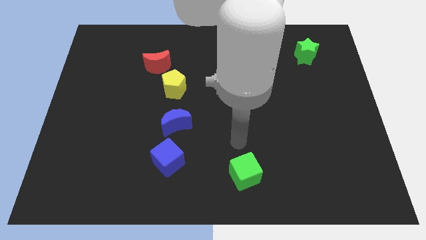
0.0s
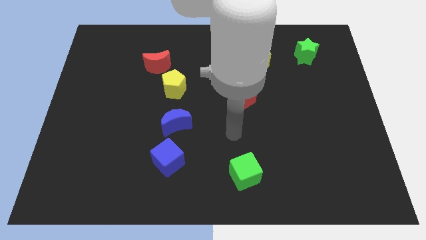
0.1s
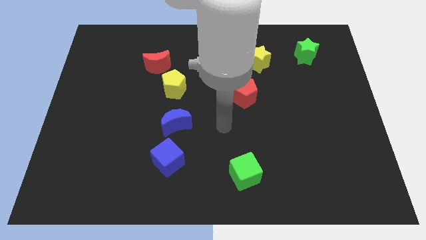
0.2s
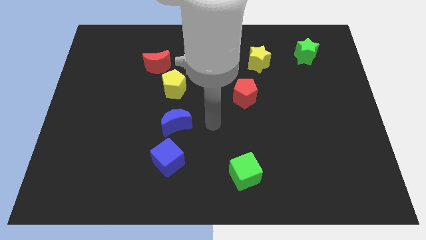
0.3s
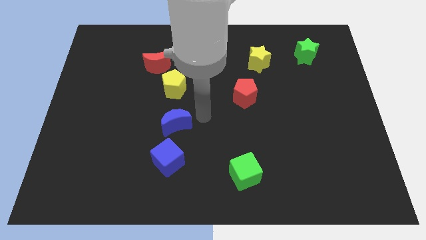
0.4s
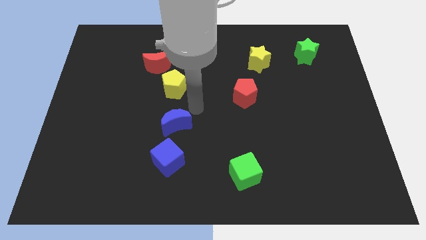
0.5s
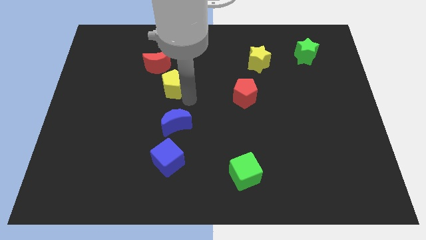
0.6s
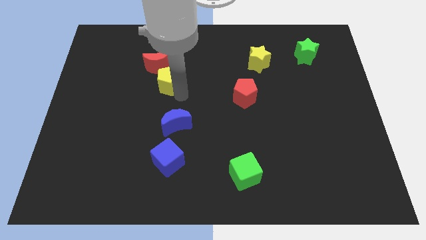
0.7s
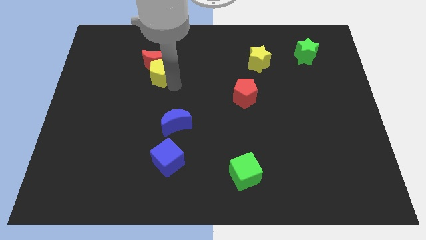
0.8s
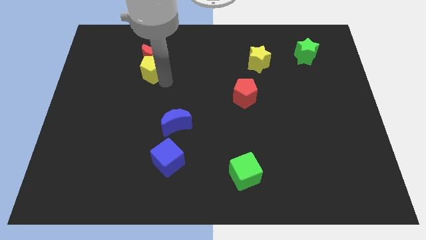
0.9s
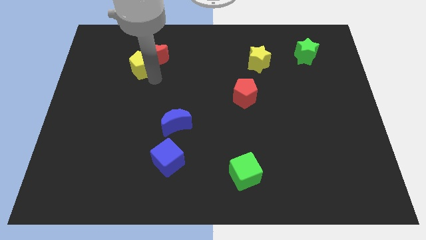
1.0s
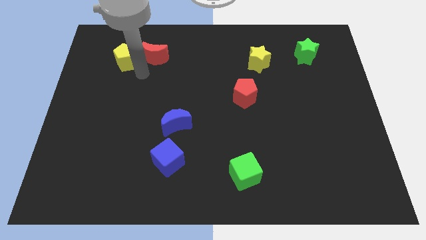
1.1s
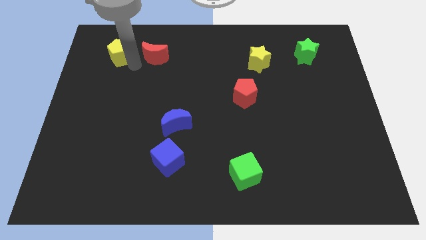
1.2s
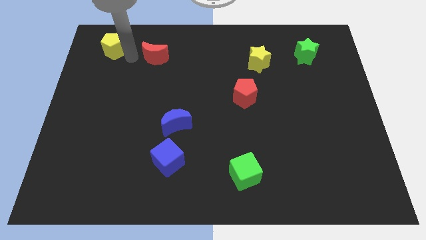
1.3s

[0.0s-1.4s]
move the red moon away from the yellow pentagon

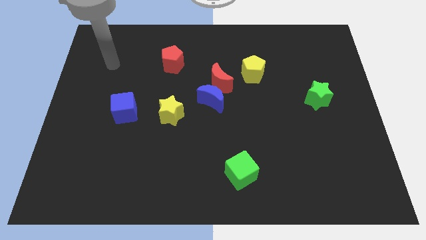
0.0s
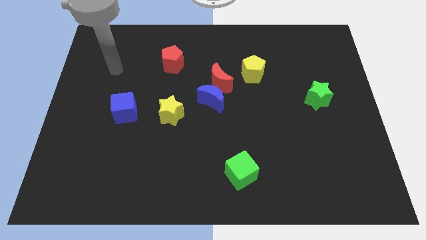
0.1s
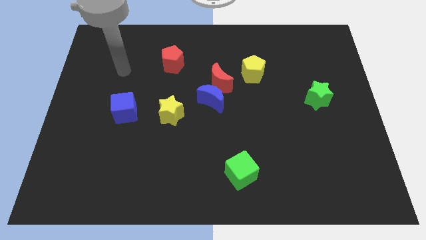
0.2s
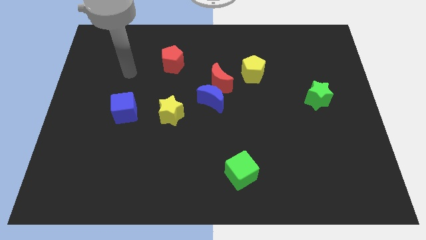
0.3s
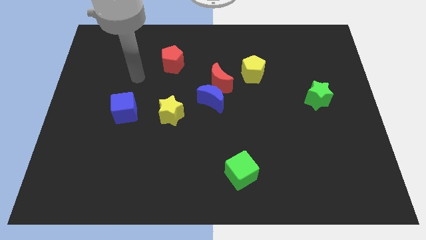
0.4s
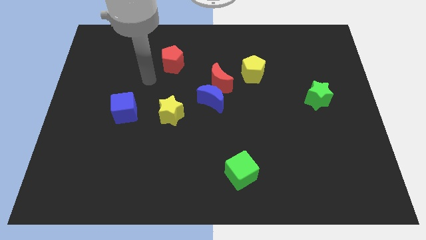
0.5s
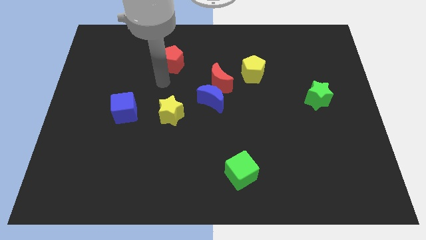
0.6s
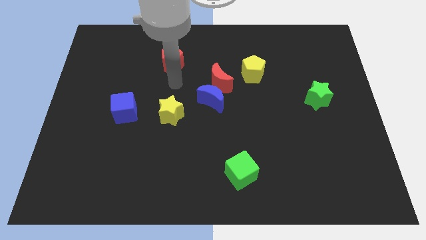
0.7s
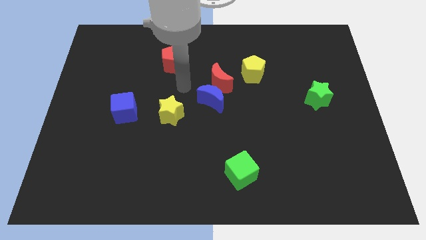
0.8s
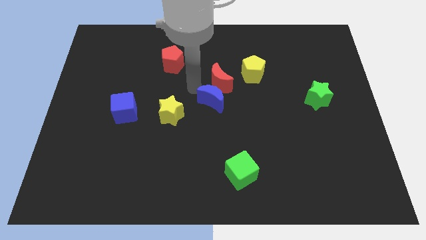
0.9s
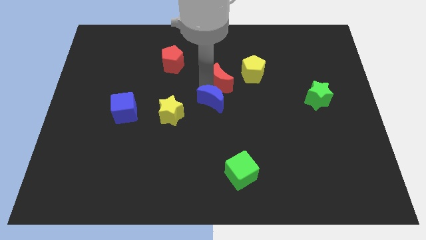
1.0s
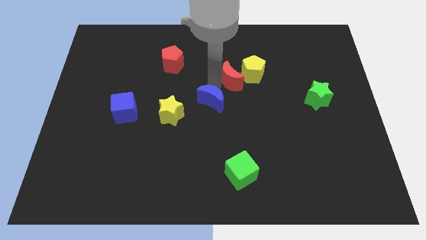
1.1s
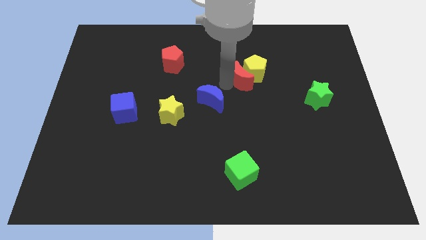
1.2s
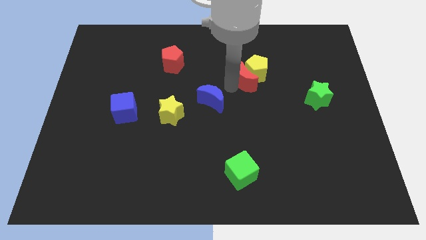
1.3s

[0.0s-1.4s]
move the blue moon away from the red moon

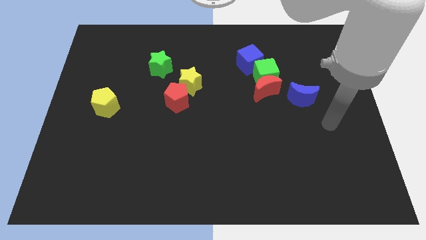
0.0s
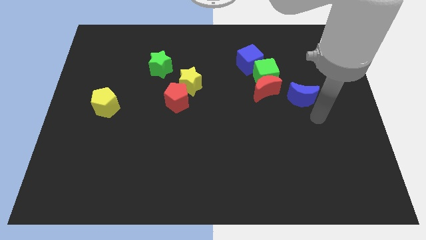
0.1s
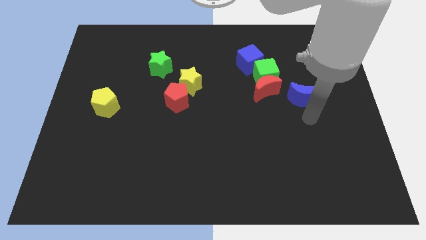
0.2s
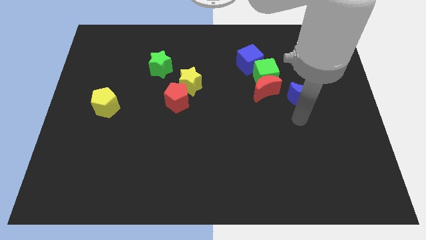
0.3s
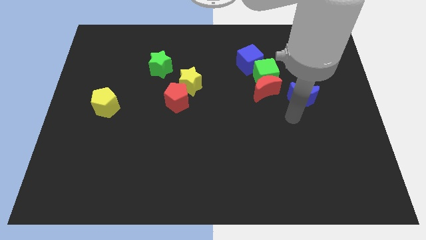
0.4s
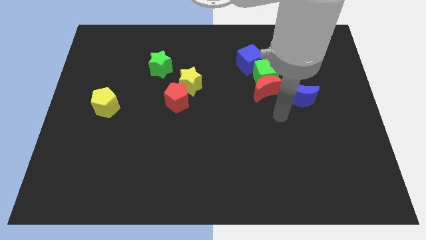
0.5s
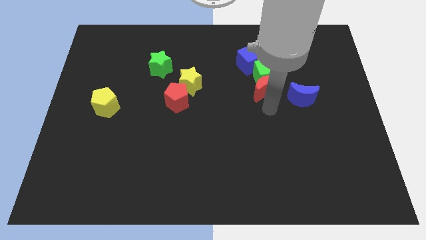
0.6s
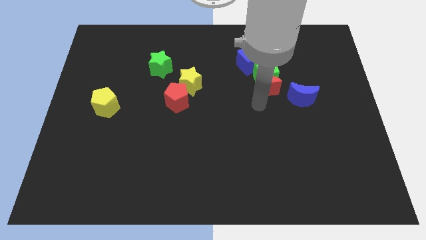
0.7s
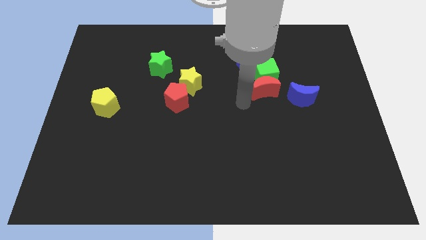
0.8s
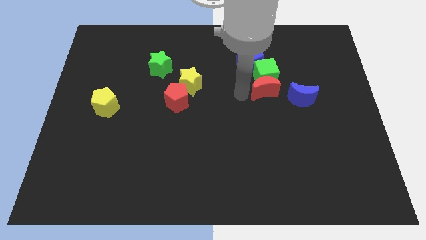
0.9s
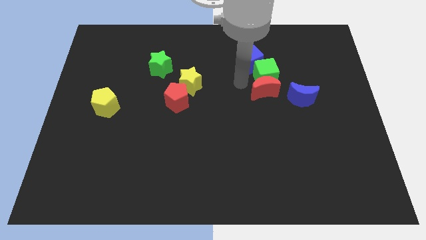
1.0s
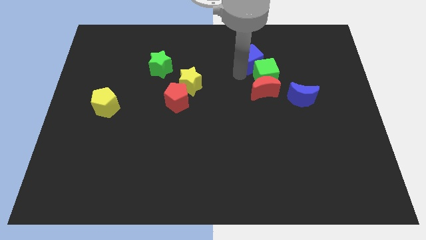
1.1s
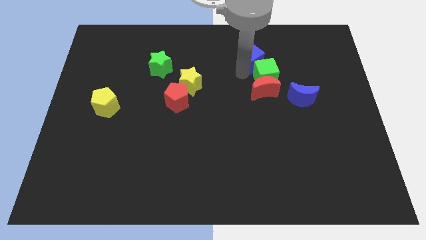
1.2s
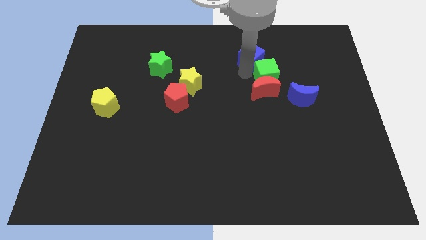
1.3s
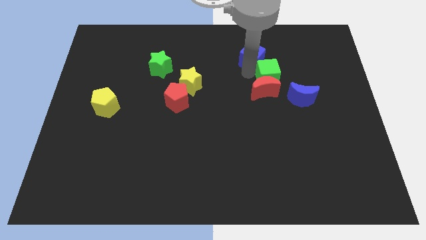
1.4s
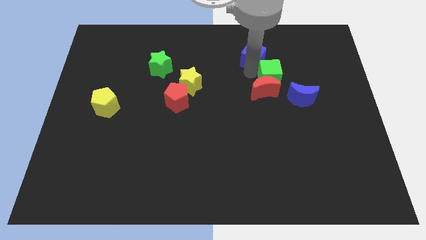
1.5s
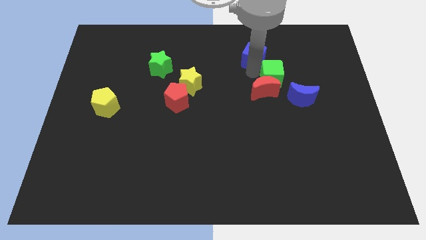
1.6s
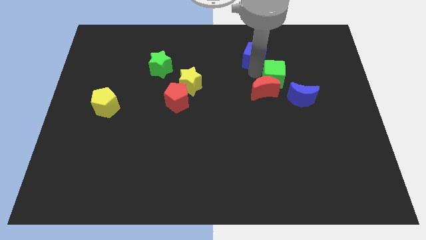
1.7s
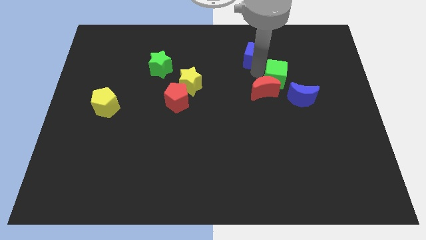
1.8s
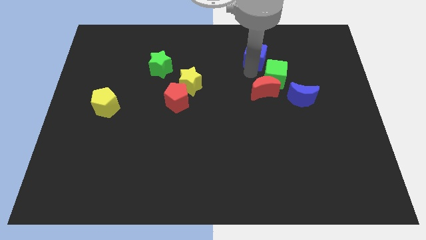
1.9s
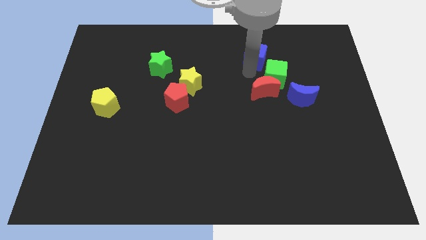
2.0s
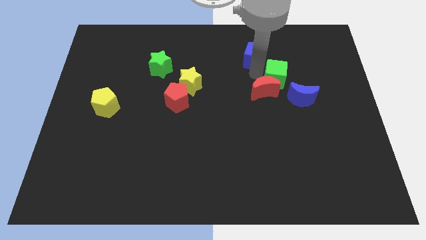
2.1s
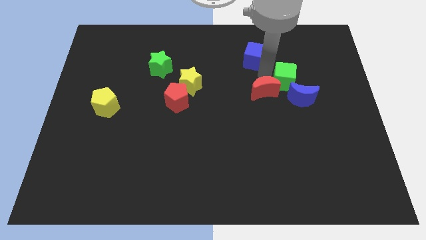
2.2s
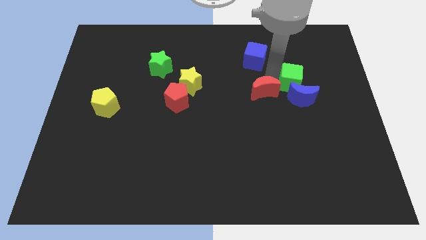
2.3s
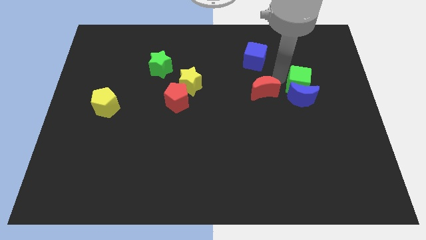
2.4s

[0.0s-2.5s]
pull the green cube apart from the red moon and blue cube

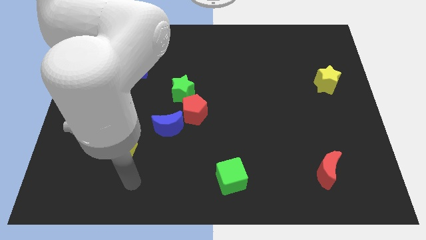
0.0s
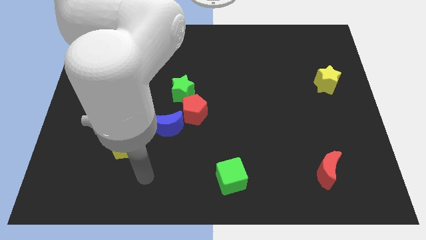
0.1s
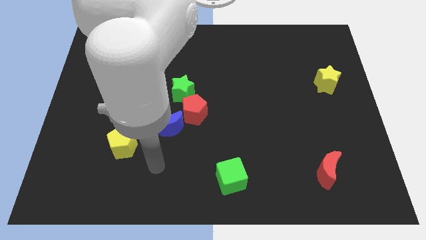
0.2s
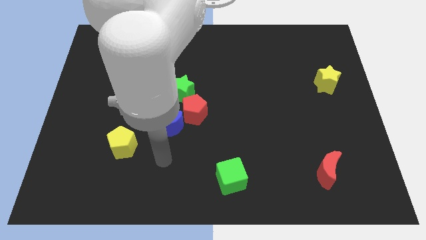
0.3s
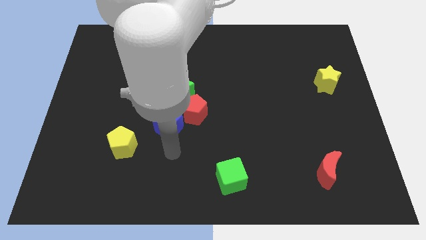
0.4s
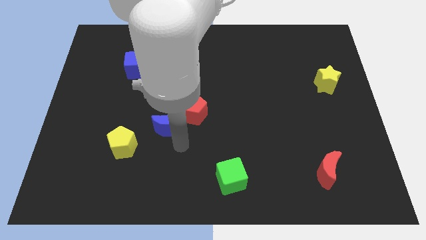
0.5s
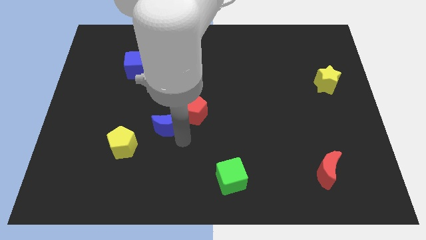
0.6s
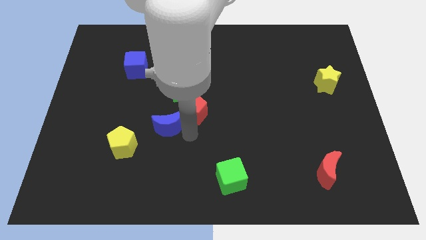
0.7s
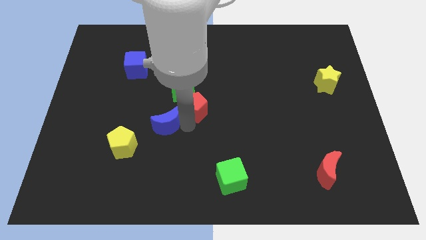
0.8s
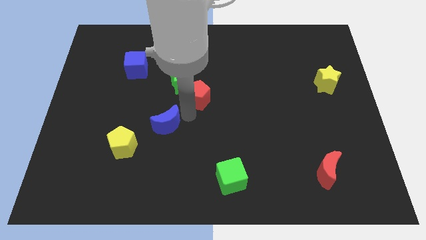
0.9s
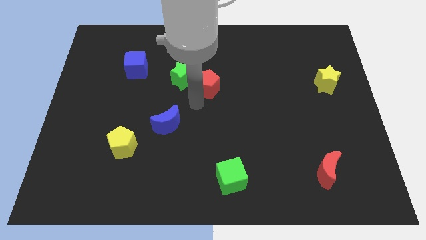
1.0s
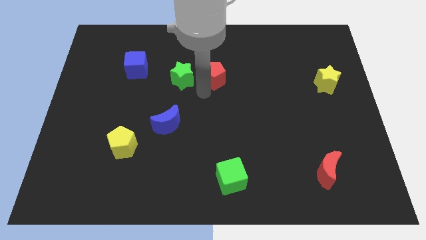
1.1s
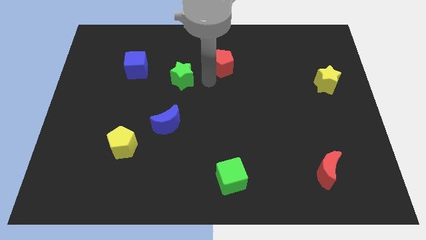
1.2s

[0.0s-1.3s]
separate the green star from the red pentagon

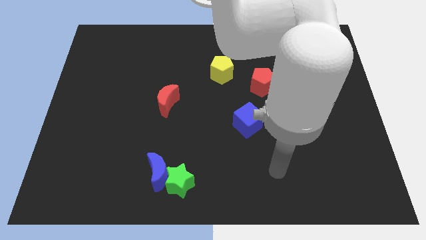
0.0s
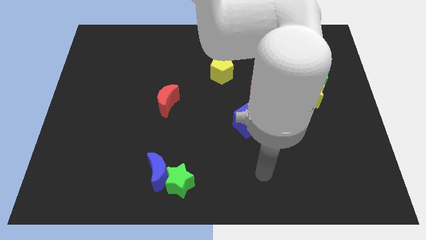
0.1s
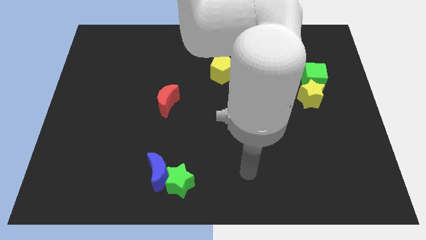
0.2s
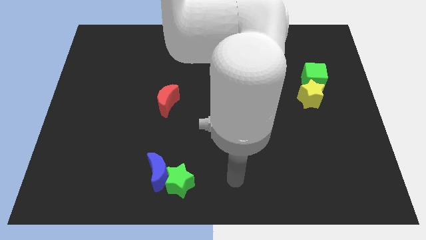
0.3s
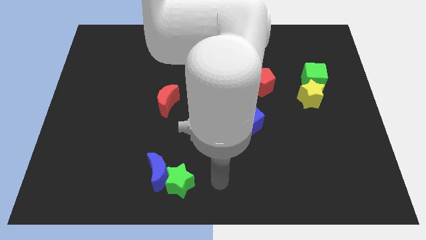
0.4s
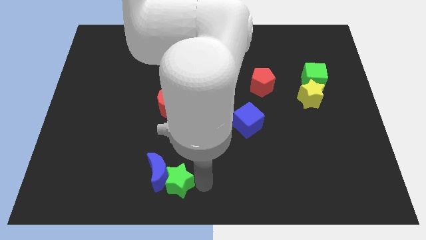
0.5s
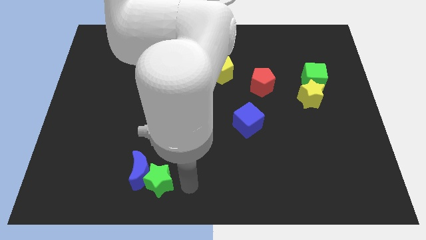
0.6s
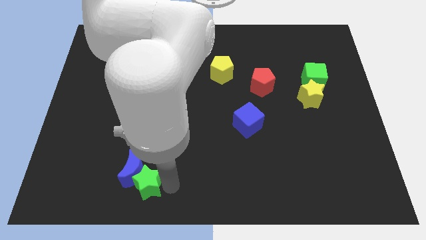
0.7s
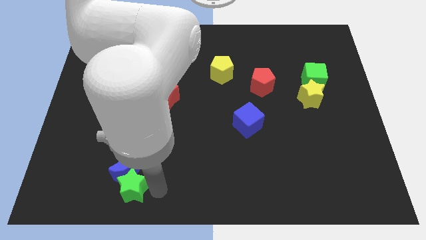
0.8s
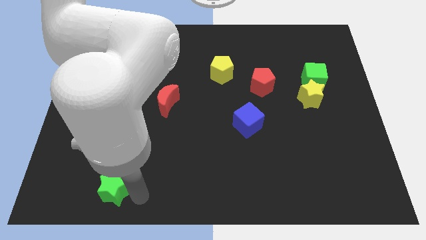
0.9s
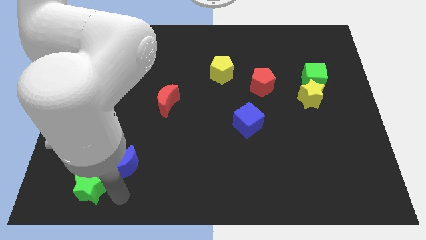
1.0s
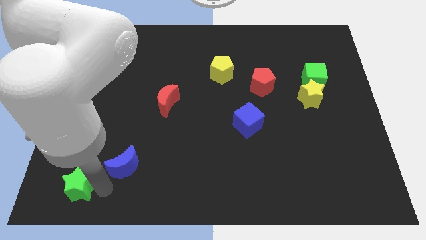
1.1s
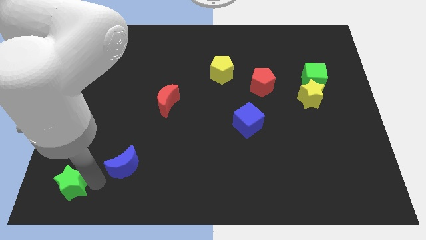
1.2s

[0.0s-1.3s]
separate the blue moon from the green star

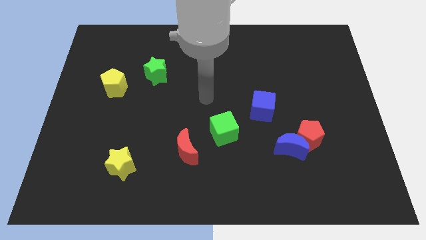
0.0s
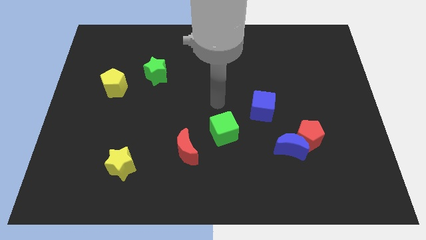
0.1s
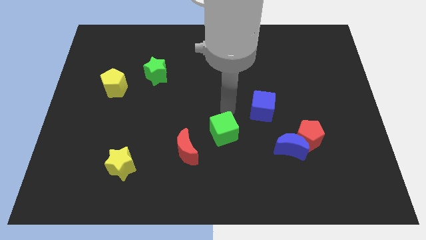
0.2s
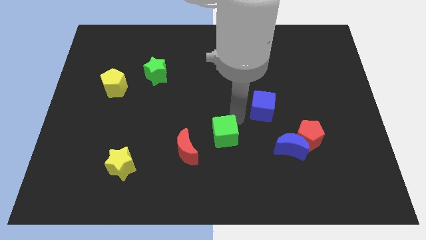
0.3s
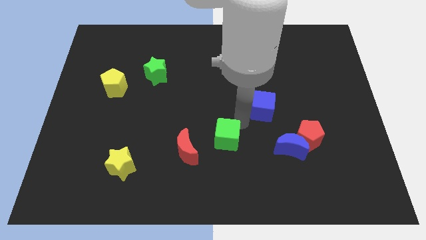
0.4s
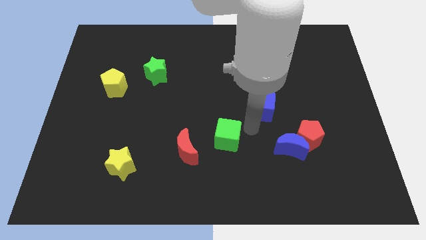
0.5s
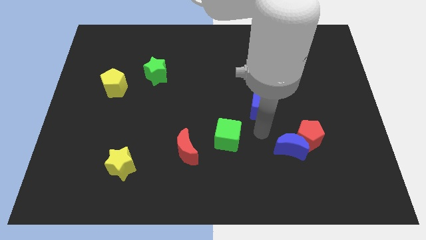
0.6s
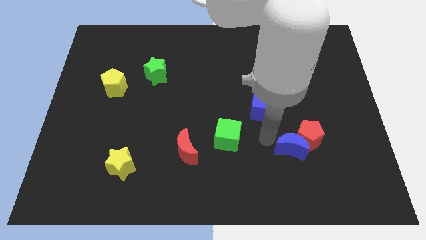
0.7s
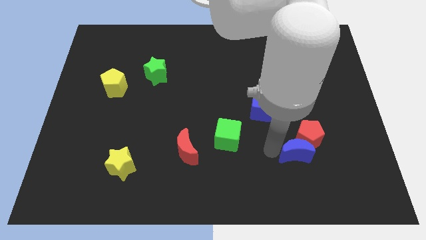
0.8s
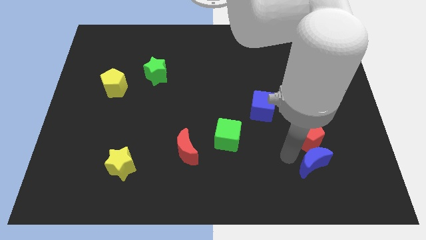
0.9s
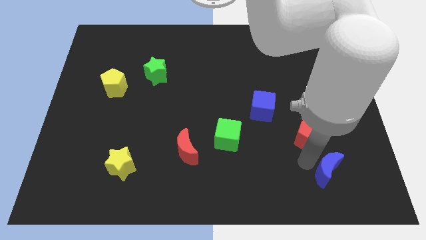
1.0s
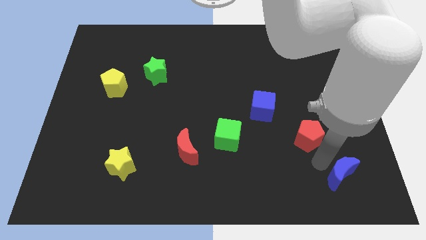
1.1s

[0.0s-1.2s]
move the red pentagon away from the blue moon

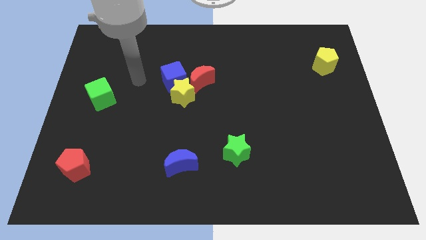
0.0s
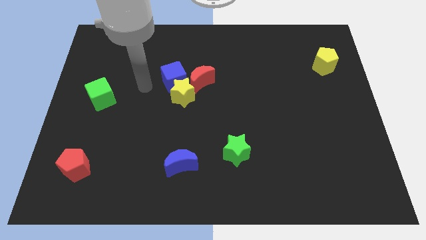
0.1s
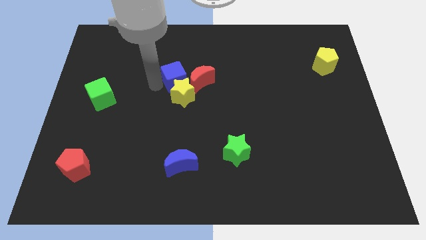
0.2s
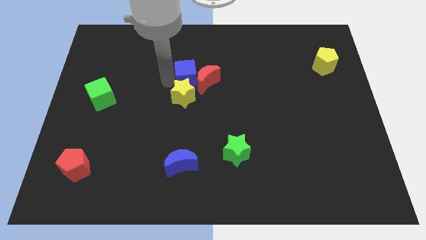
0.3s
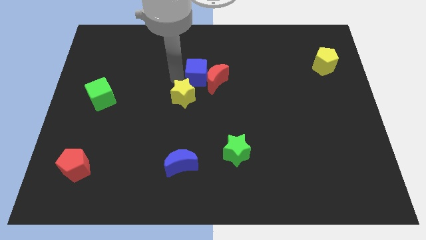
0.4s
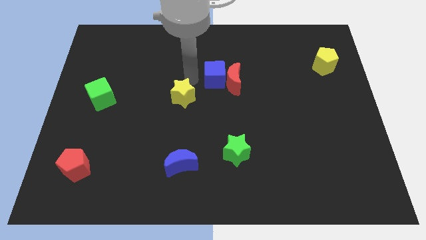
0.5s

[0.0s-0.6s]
separate the yellow star from the blue cube and red moon
